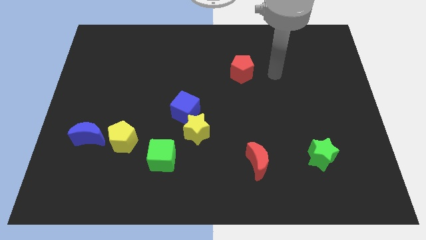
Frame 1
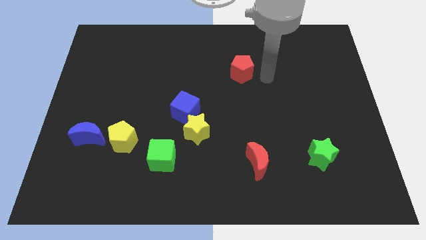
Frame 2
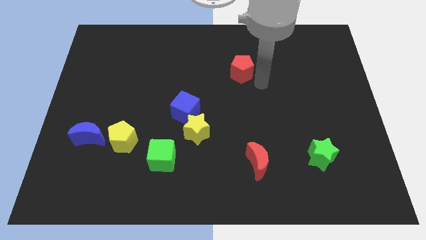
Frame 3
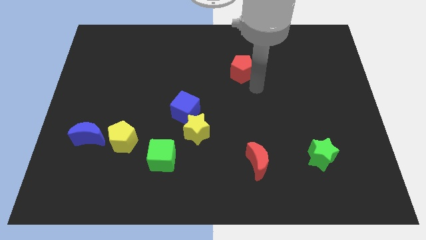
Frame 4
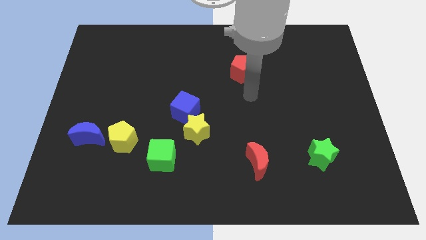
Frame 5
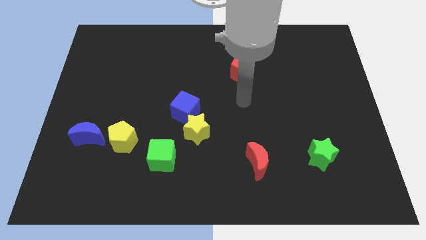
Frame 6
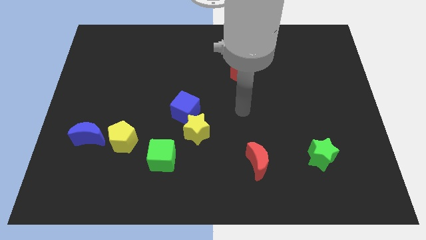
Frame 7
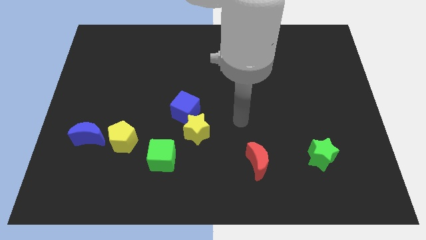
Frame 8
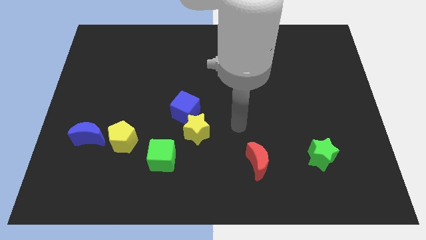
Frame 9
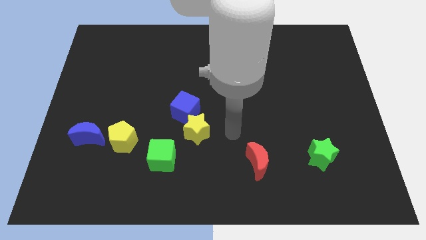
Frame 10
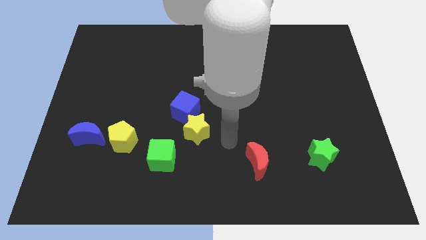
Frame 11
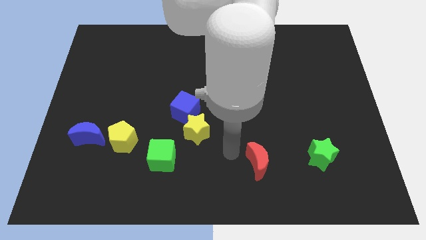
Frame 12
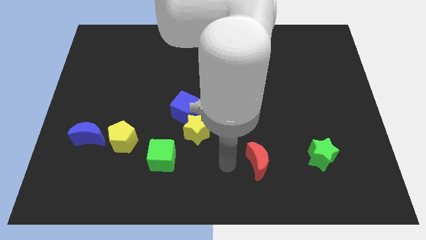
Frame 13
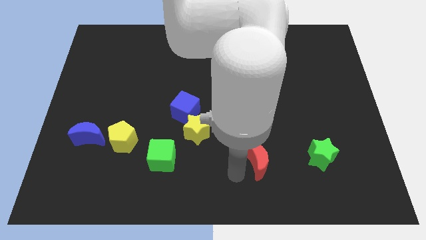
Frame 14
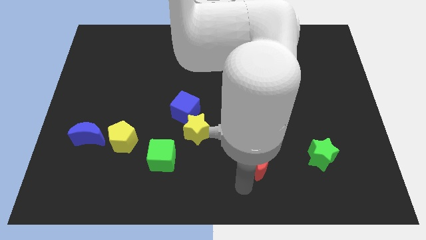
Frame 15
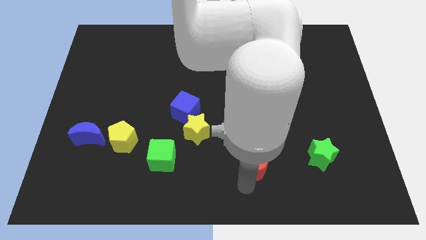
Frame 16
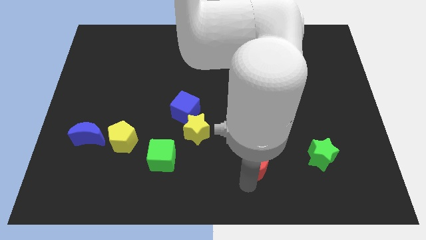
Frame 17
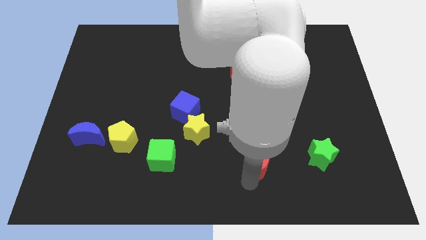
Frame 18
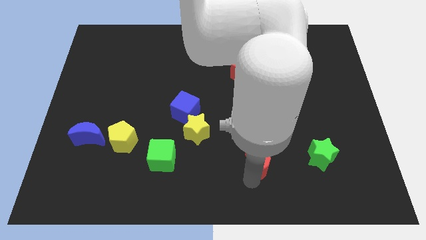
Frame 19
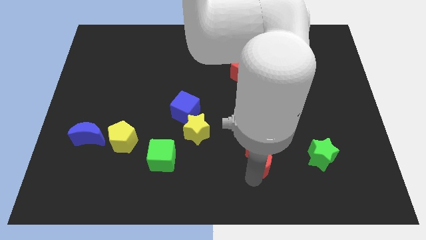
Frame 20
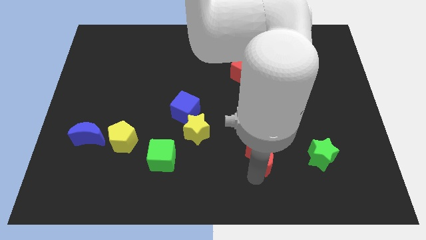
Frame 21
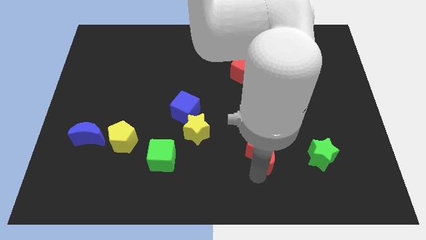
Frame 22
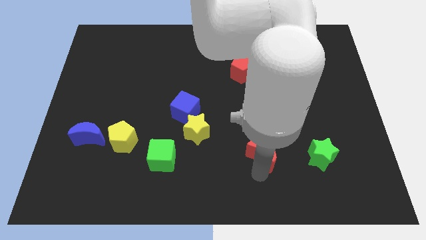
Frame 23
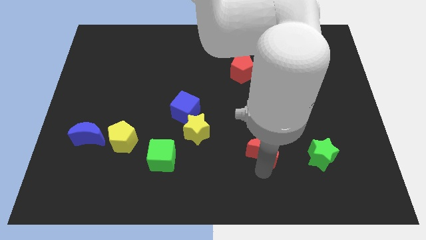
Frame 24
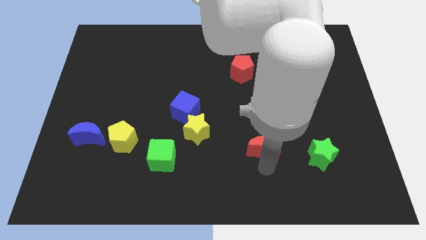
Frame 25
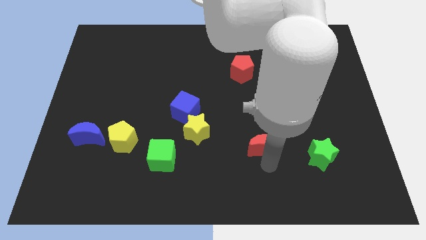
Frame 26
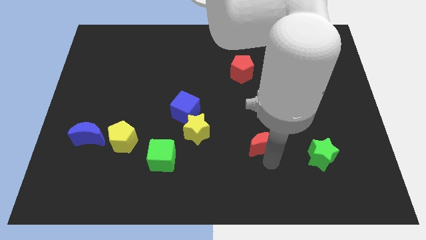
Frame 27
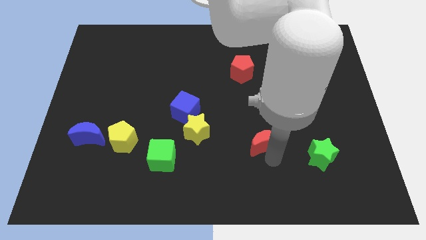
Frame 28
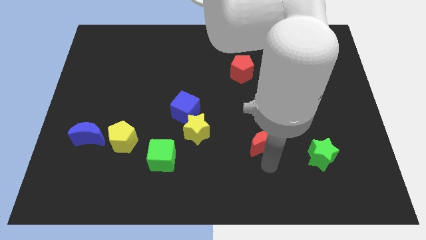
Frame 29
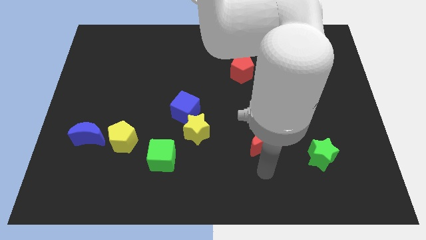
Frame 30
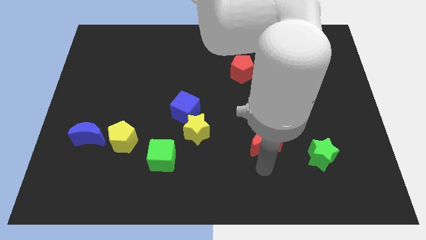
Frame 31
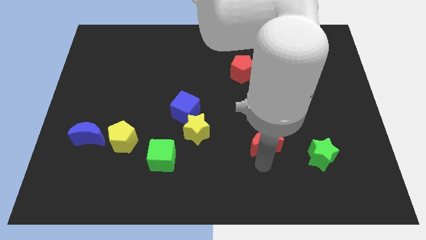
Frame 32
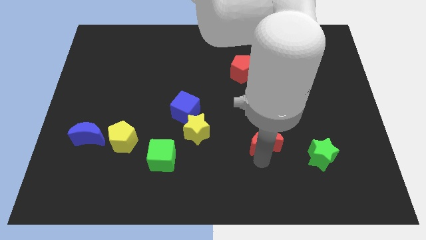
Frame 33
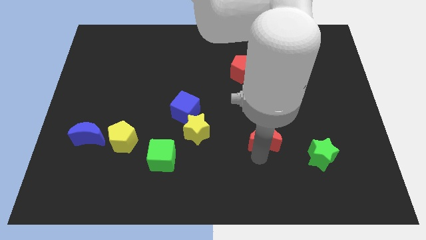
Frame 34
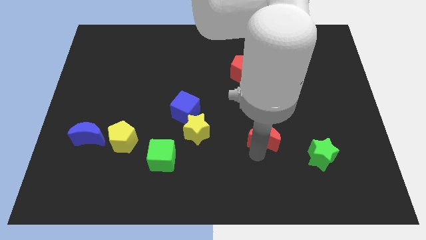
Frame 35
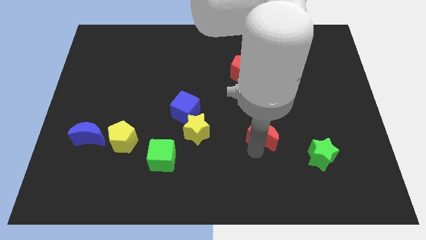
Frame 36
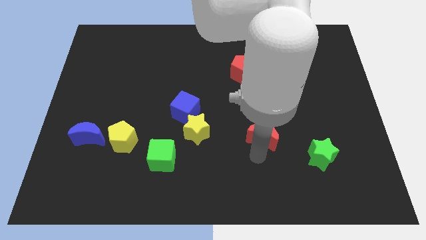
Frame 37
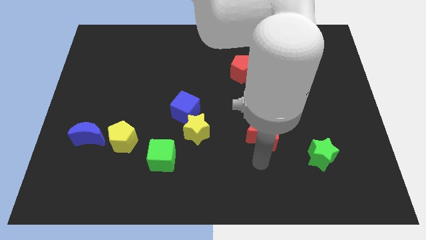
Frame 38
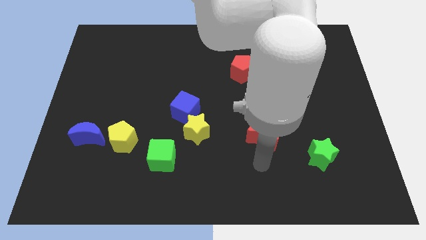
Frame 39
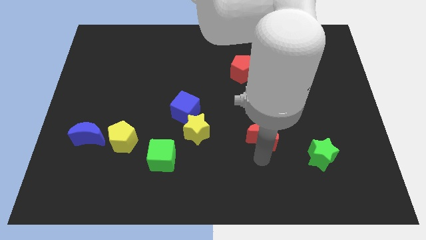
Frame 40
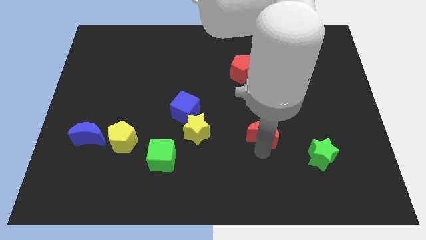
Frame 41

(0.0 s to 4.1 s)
slightly slide the red moon up

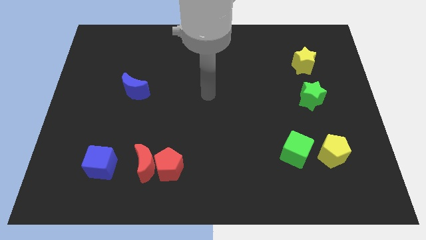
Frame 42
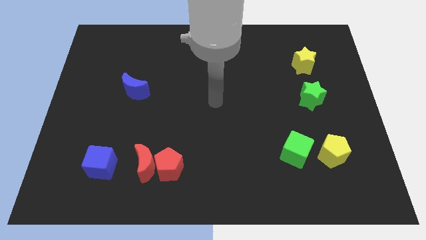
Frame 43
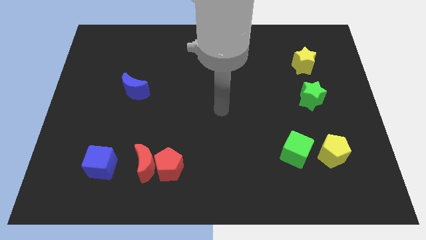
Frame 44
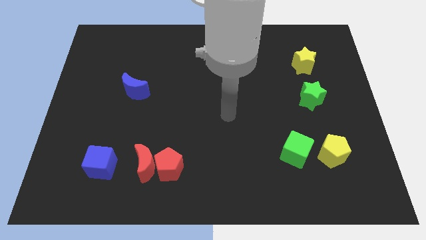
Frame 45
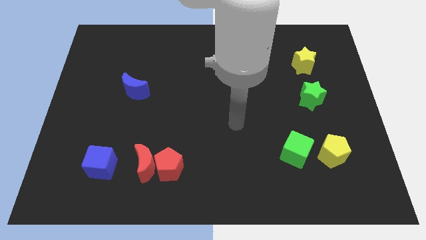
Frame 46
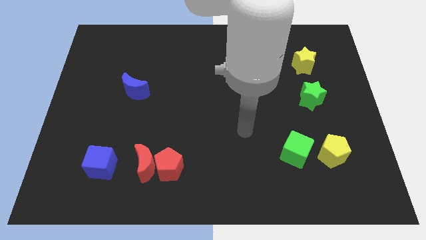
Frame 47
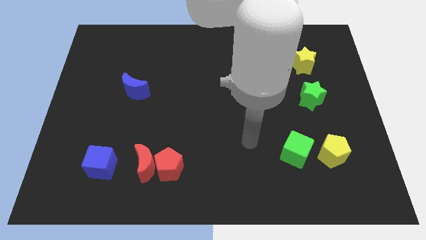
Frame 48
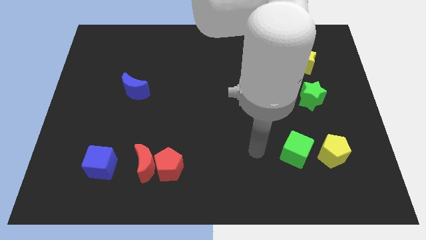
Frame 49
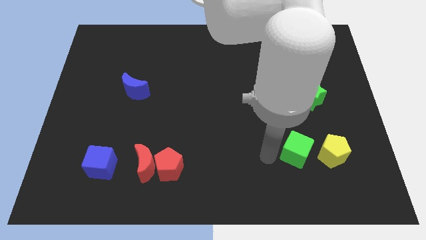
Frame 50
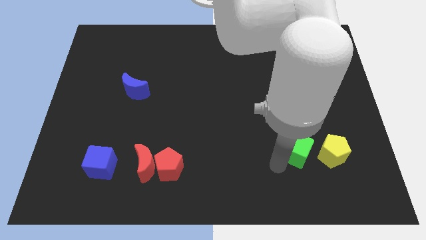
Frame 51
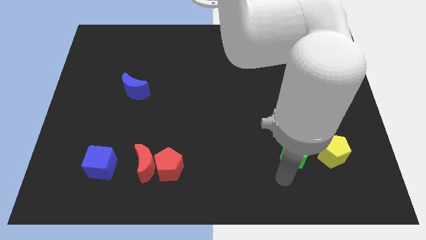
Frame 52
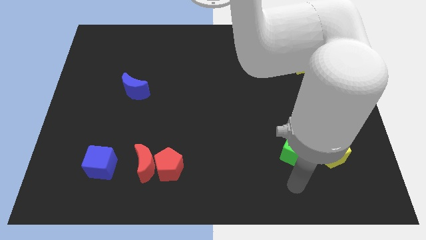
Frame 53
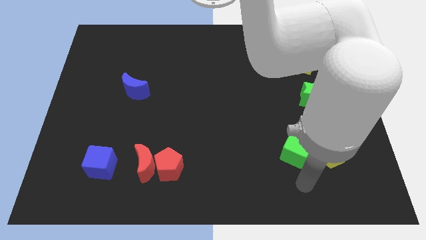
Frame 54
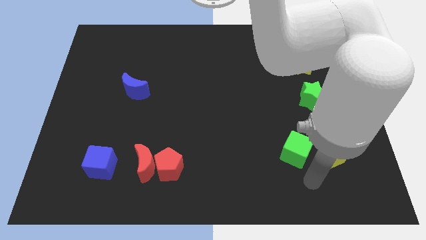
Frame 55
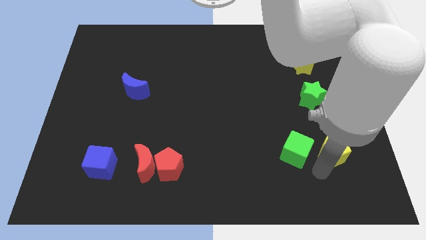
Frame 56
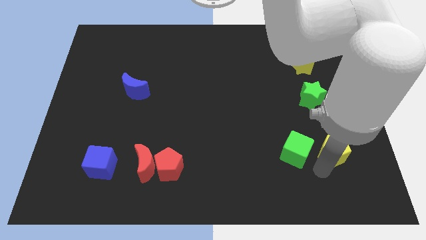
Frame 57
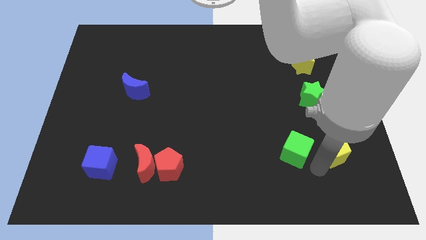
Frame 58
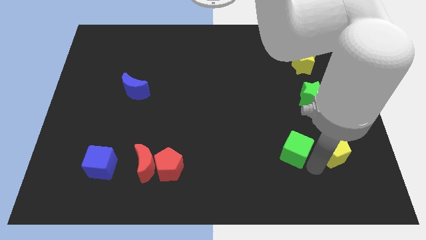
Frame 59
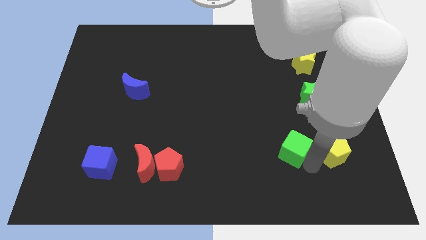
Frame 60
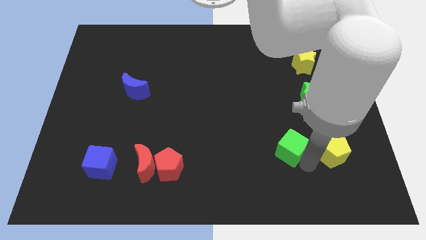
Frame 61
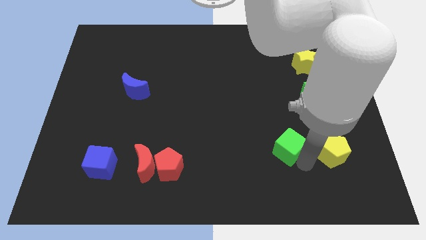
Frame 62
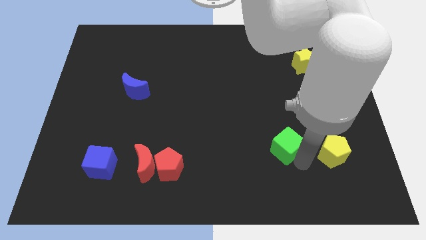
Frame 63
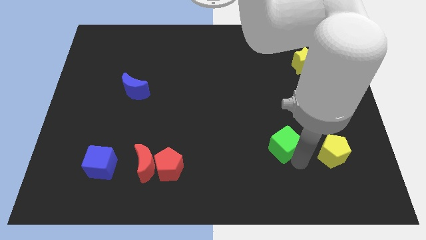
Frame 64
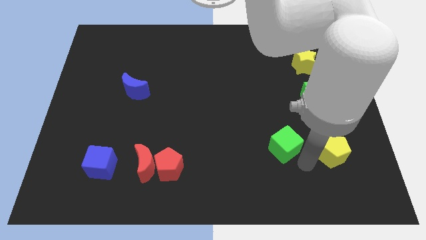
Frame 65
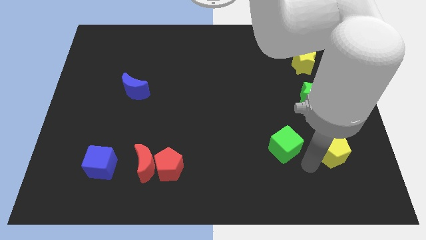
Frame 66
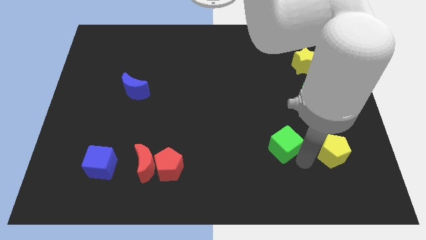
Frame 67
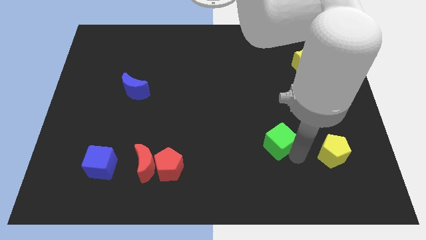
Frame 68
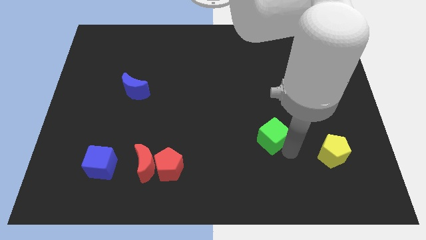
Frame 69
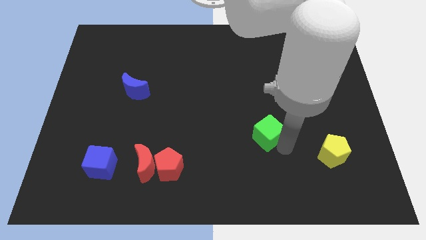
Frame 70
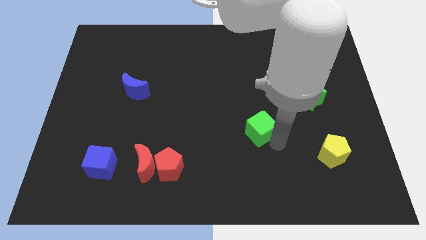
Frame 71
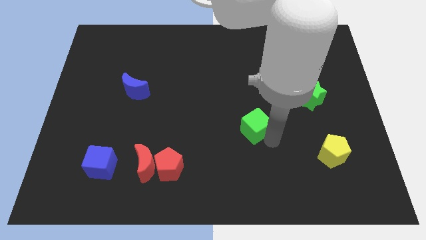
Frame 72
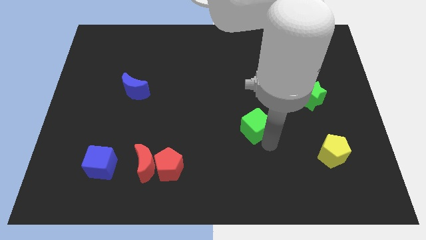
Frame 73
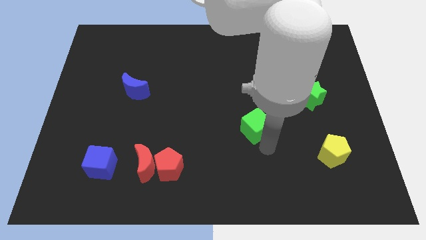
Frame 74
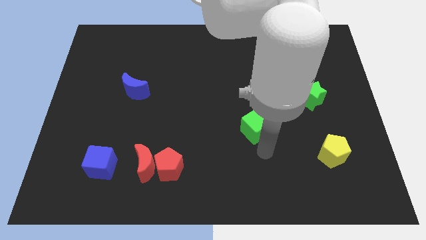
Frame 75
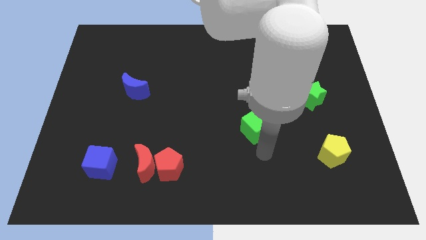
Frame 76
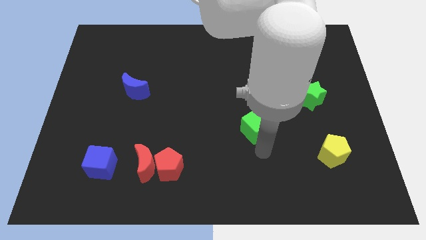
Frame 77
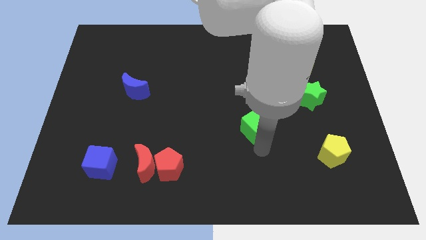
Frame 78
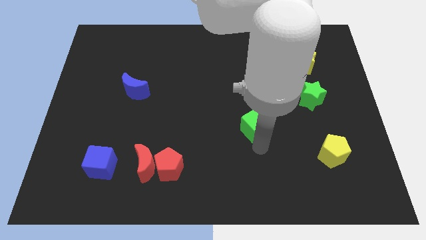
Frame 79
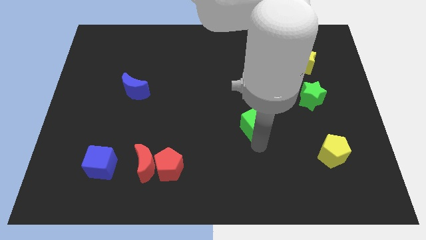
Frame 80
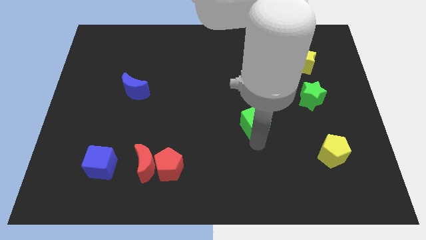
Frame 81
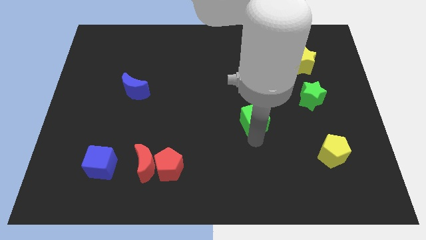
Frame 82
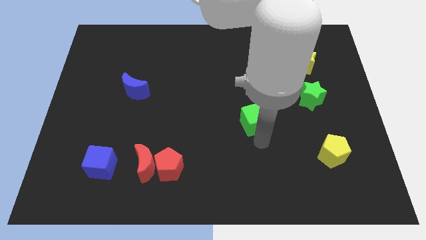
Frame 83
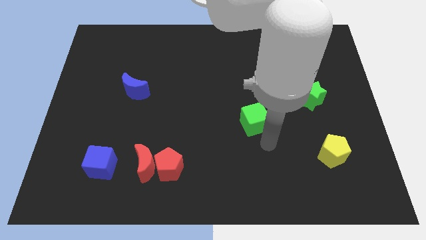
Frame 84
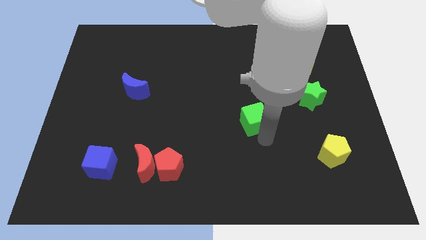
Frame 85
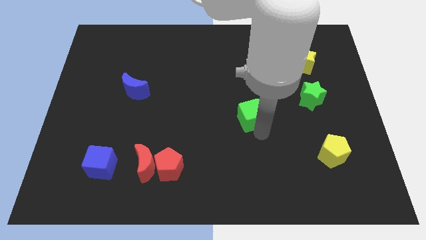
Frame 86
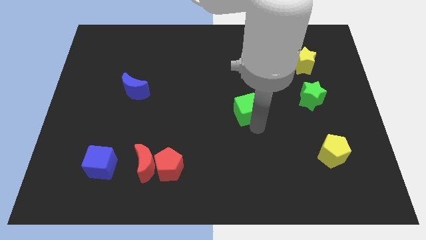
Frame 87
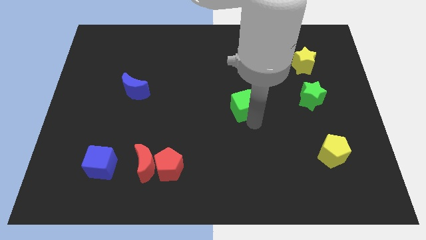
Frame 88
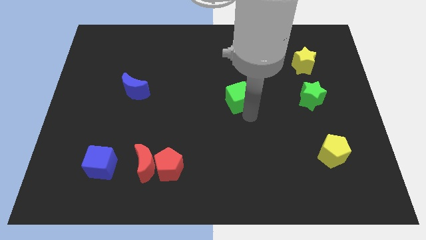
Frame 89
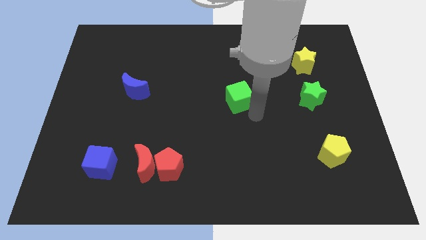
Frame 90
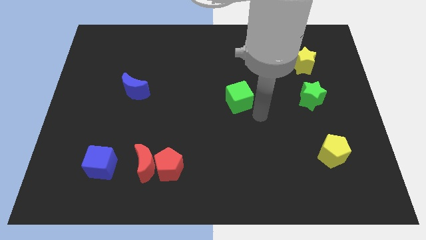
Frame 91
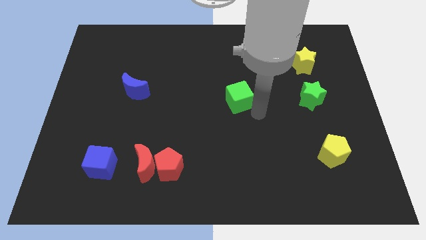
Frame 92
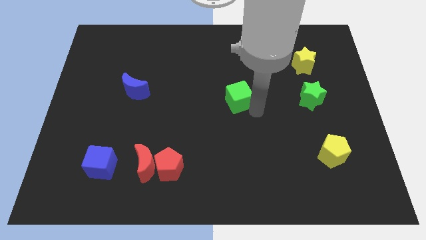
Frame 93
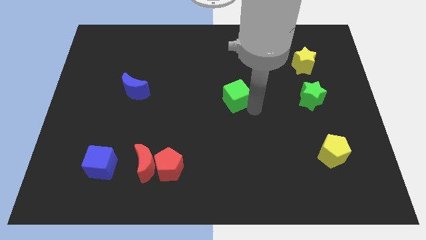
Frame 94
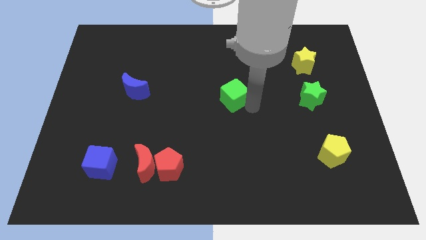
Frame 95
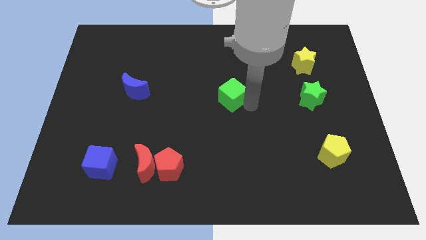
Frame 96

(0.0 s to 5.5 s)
push the green cube upwards and left diagonally
